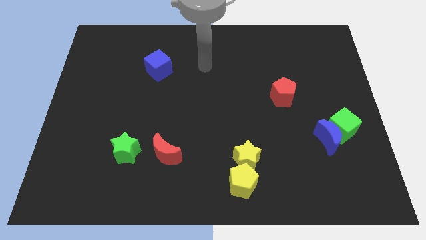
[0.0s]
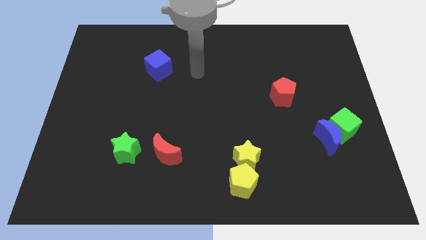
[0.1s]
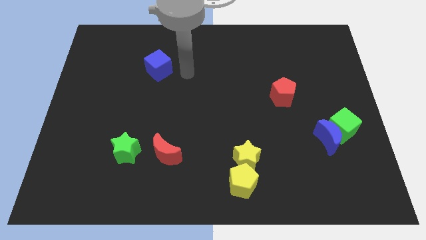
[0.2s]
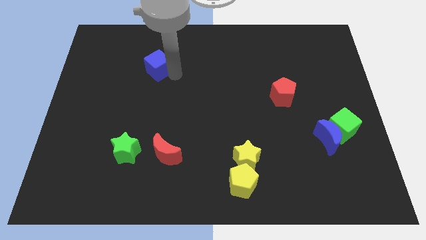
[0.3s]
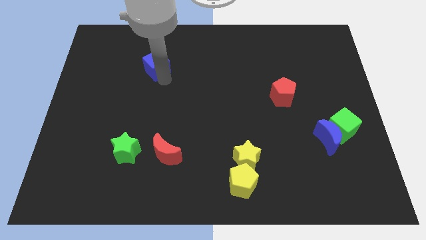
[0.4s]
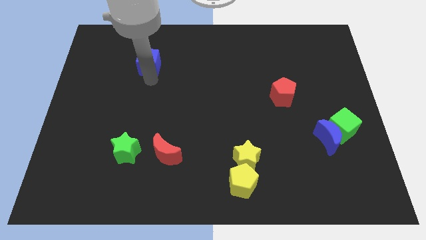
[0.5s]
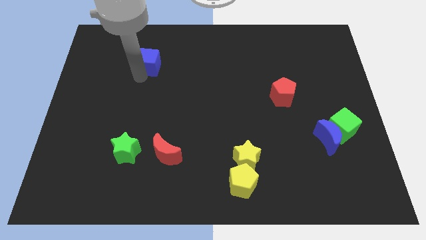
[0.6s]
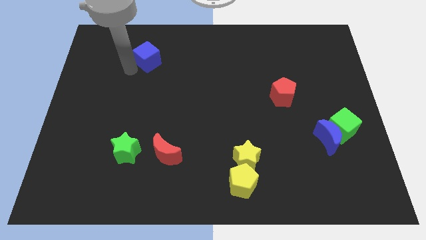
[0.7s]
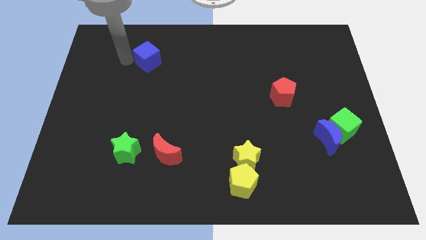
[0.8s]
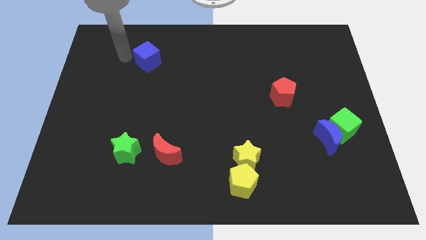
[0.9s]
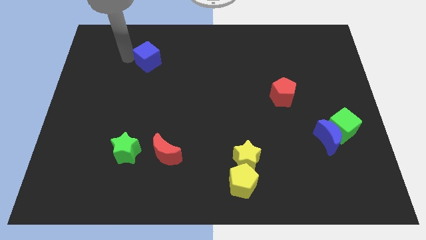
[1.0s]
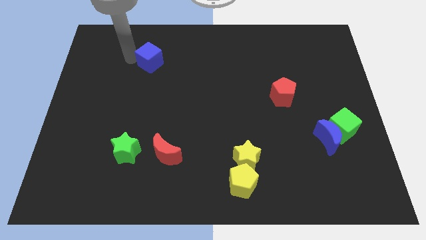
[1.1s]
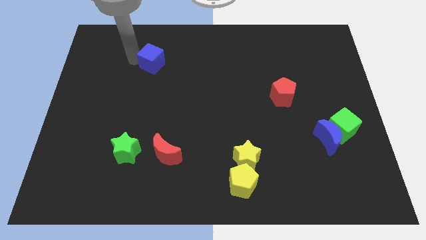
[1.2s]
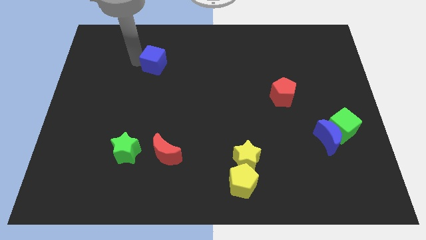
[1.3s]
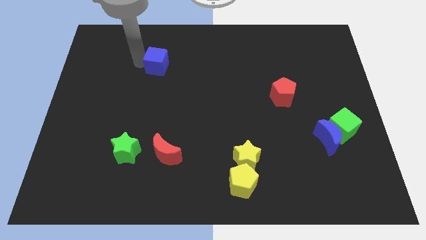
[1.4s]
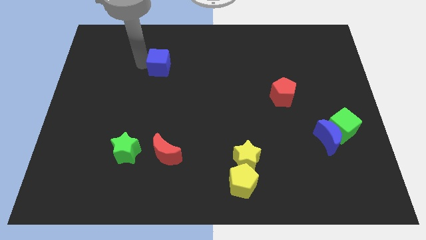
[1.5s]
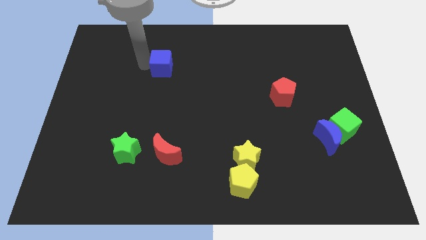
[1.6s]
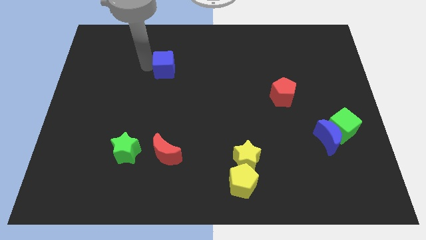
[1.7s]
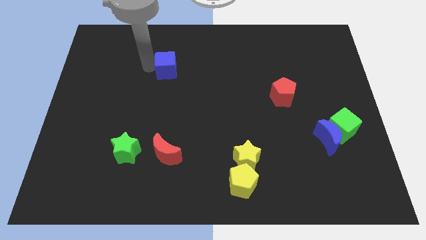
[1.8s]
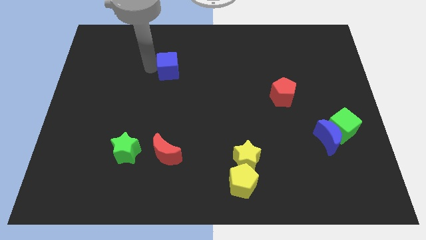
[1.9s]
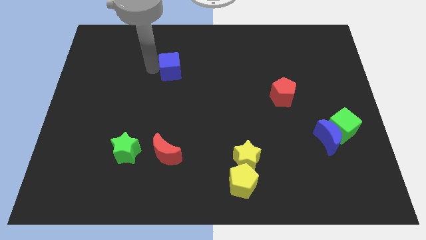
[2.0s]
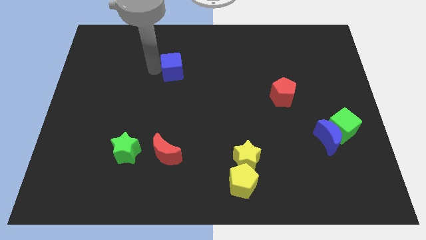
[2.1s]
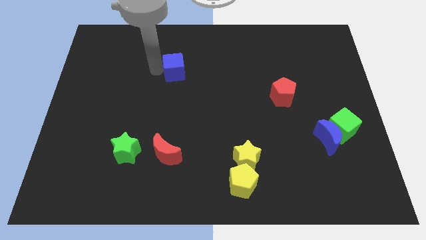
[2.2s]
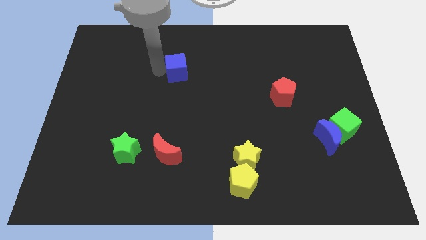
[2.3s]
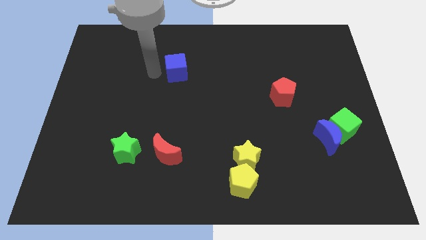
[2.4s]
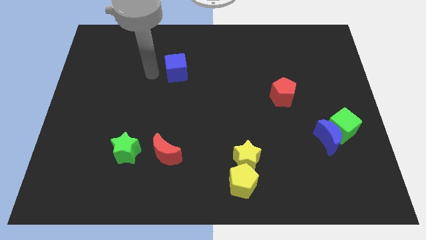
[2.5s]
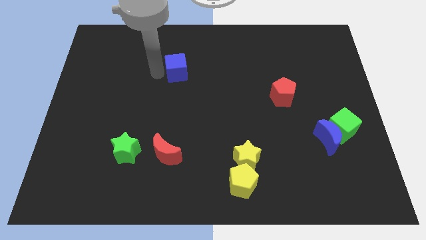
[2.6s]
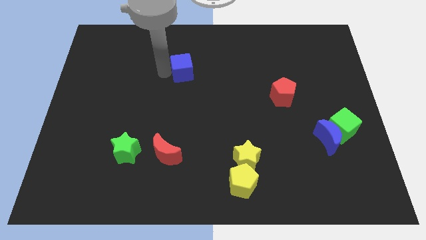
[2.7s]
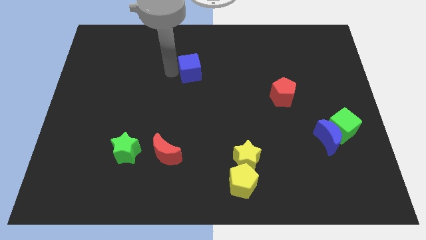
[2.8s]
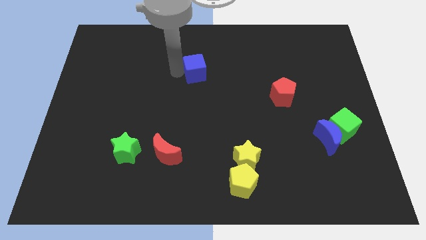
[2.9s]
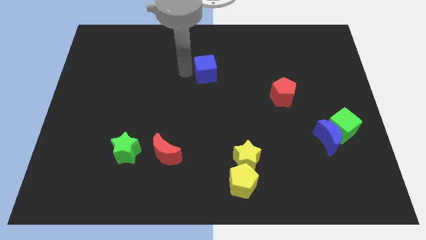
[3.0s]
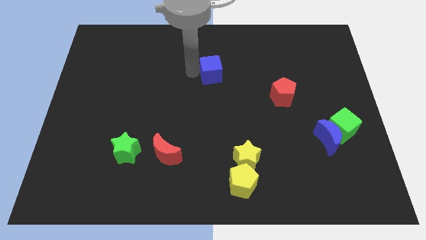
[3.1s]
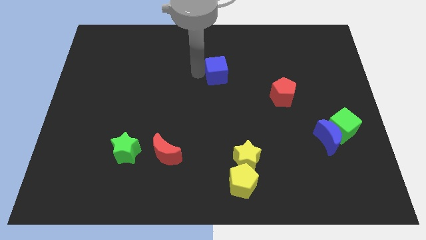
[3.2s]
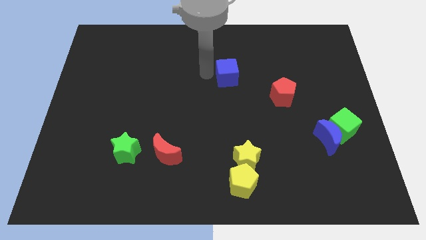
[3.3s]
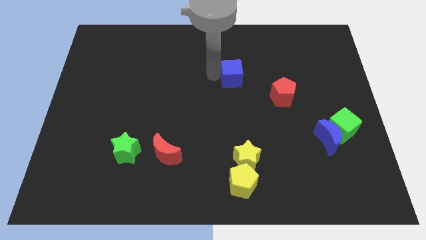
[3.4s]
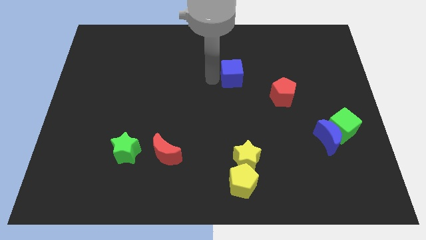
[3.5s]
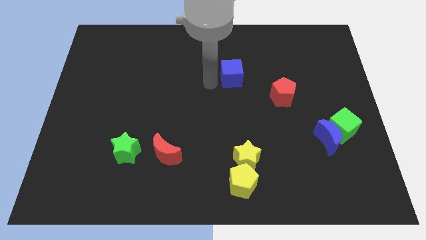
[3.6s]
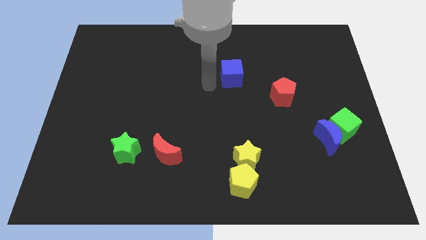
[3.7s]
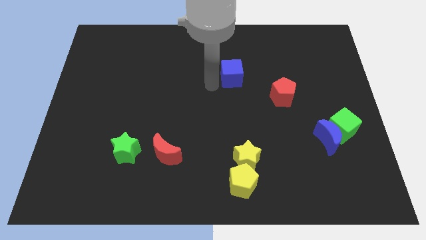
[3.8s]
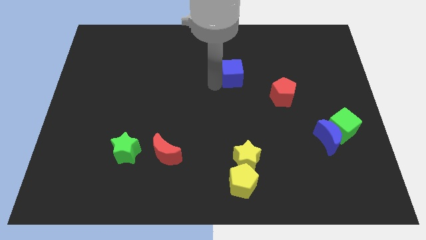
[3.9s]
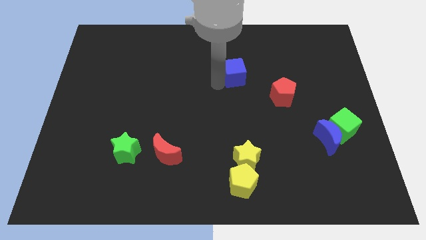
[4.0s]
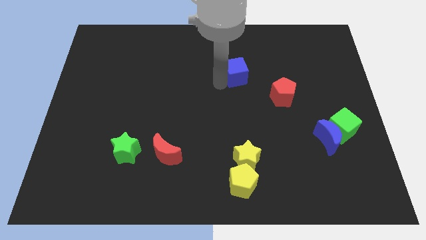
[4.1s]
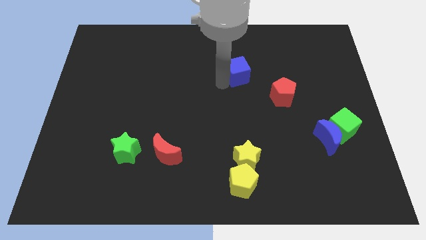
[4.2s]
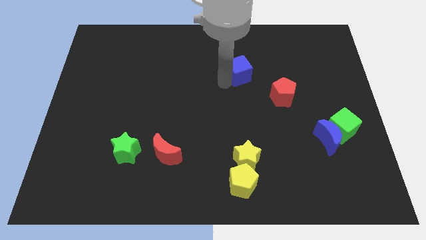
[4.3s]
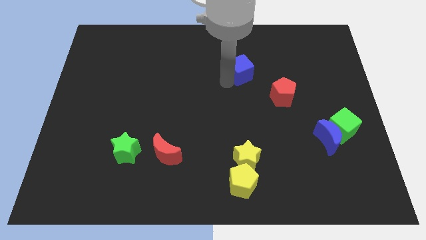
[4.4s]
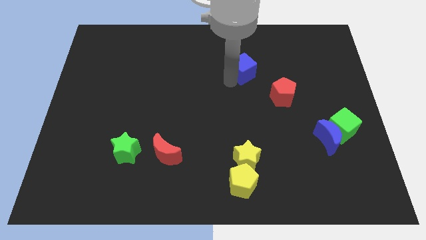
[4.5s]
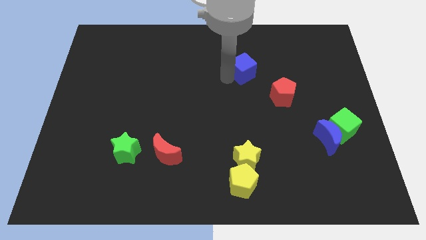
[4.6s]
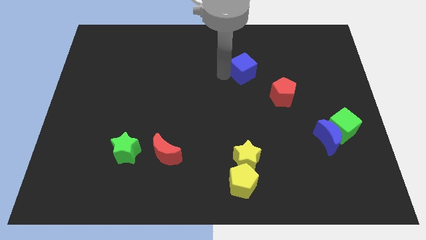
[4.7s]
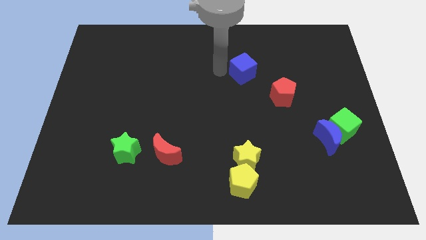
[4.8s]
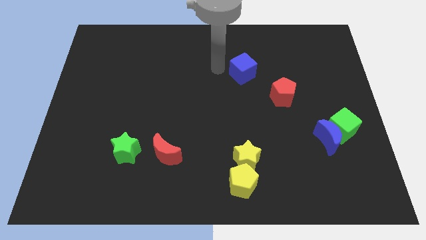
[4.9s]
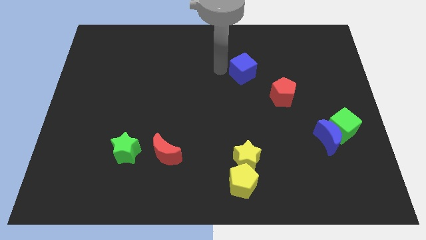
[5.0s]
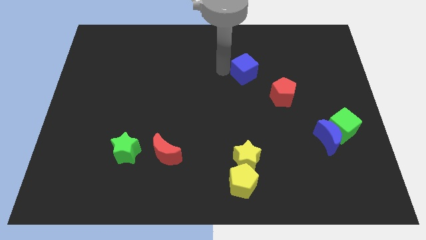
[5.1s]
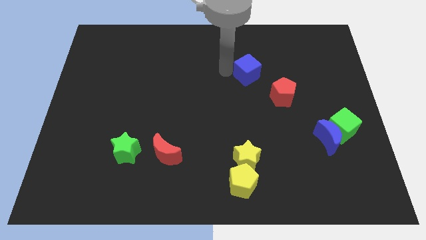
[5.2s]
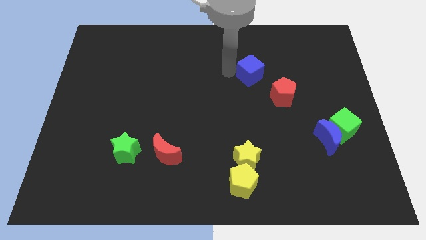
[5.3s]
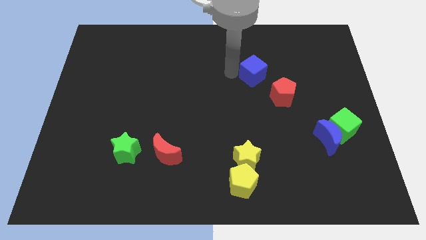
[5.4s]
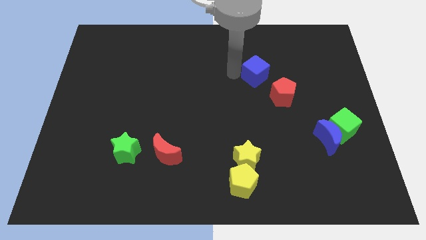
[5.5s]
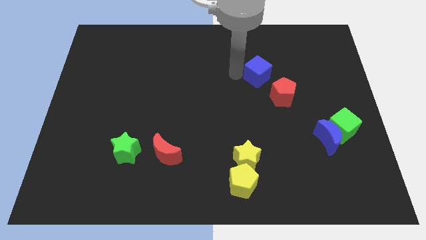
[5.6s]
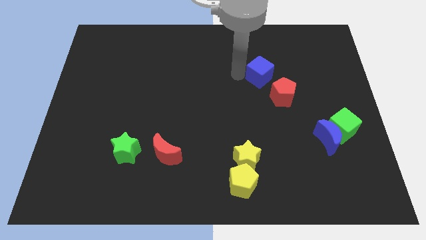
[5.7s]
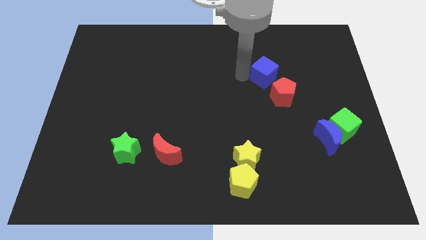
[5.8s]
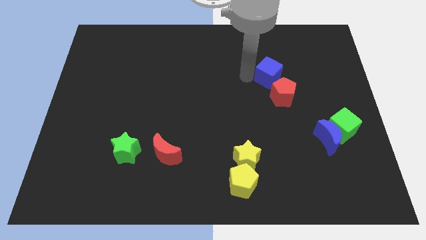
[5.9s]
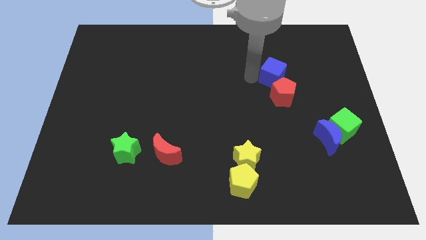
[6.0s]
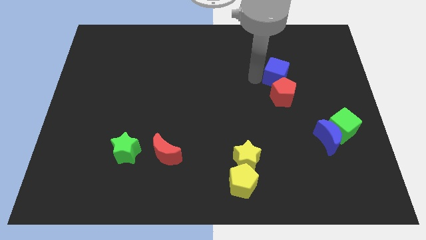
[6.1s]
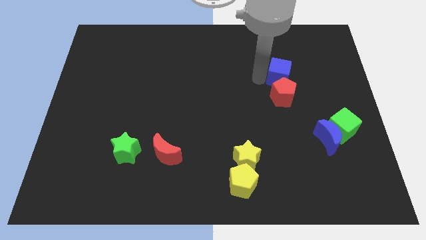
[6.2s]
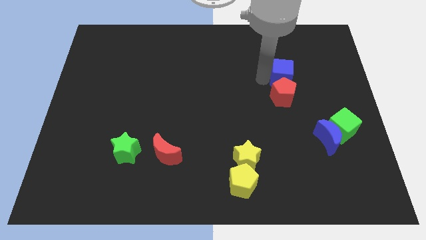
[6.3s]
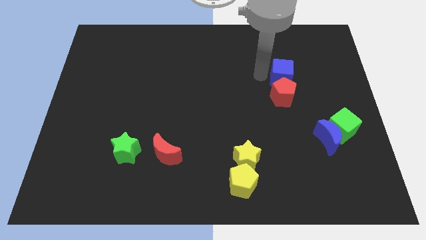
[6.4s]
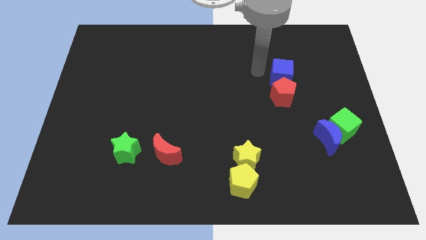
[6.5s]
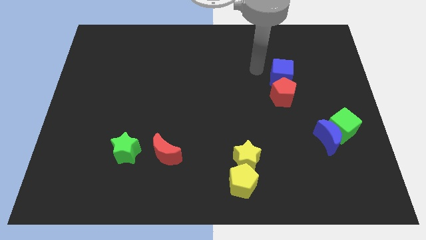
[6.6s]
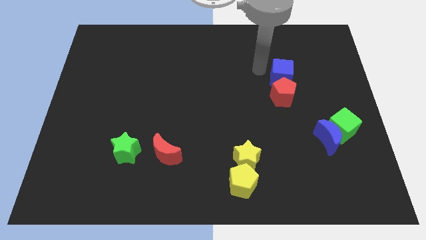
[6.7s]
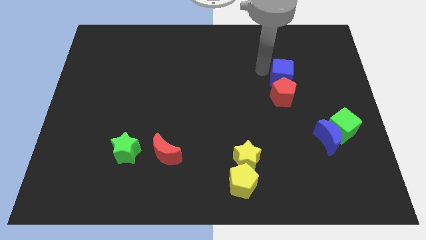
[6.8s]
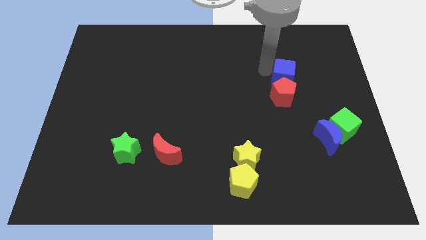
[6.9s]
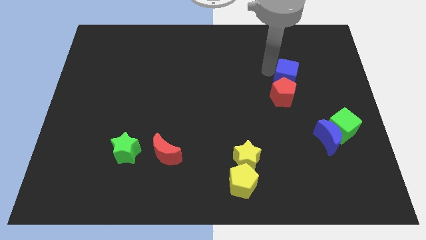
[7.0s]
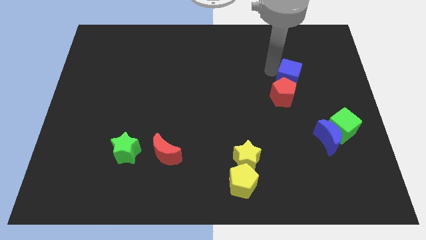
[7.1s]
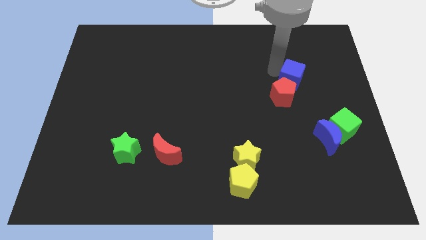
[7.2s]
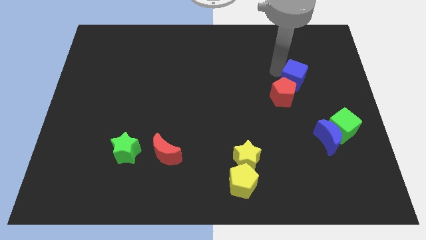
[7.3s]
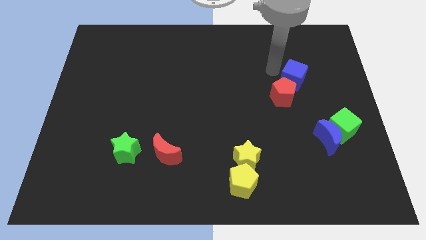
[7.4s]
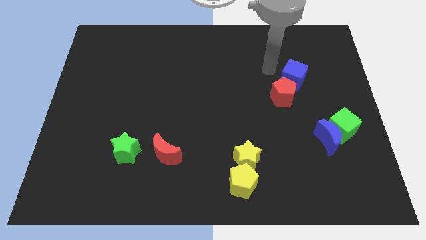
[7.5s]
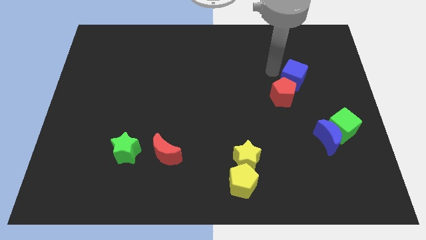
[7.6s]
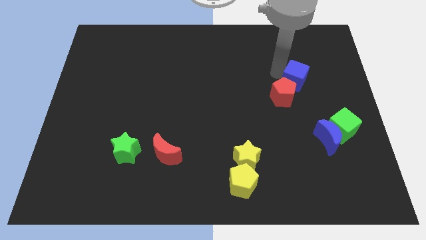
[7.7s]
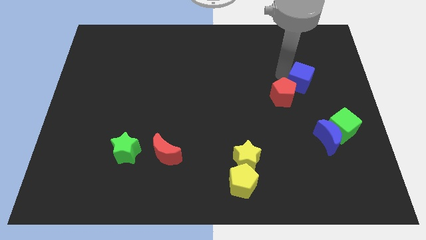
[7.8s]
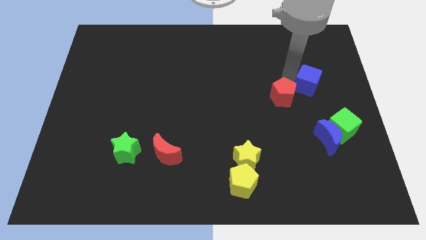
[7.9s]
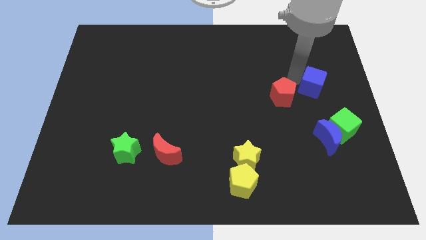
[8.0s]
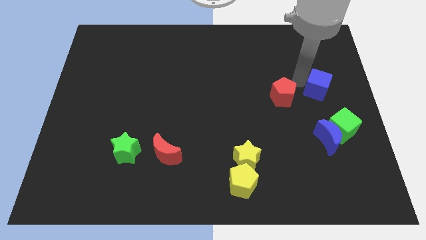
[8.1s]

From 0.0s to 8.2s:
slide the blue cube to the right side of the board
